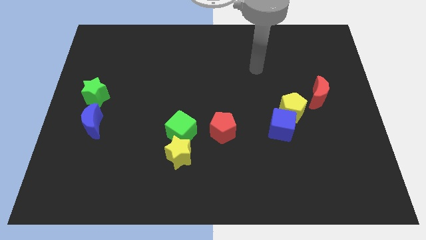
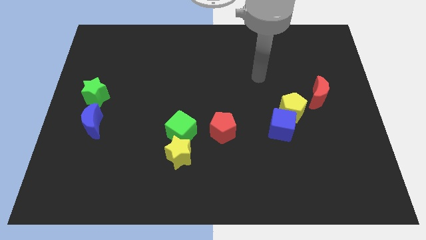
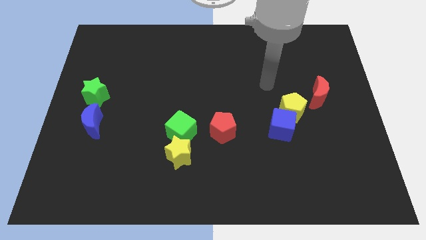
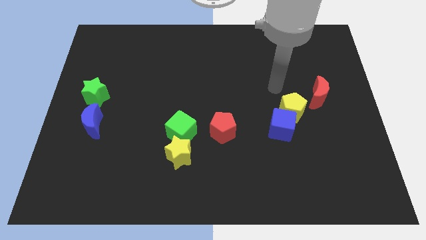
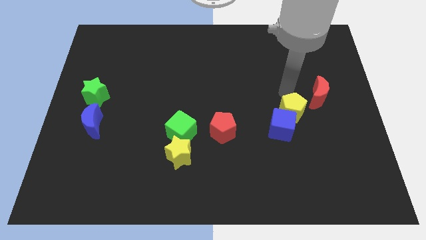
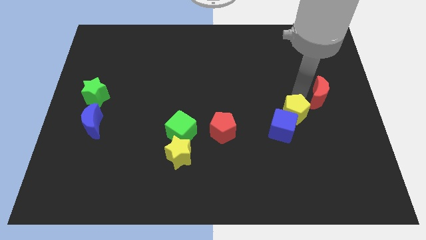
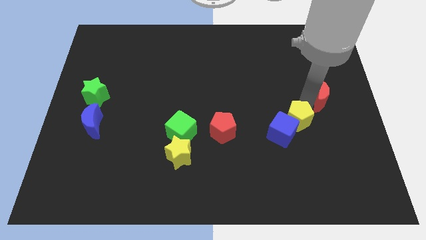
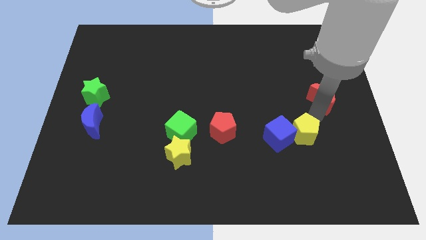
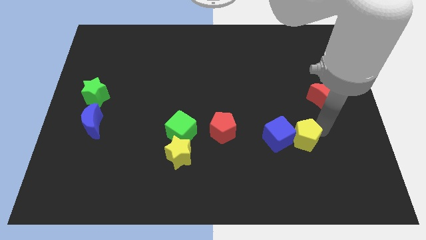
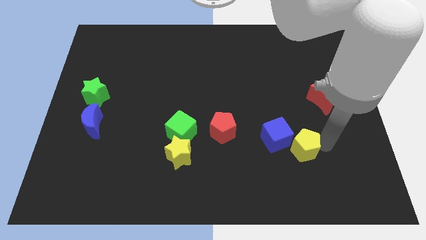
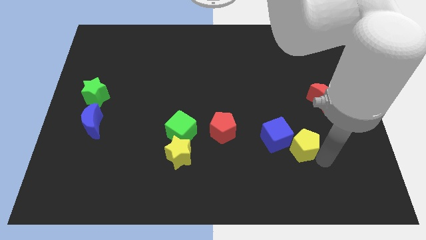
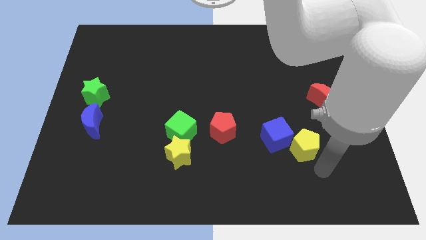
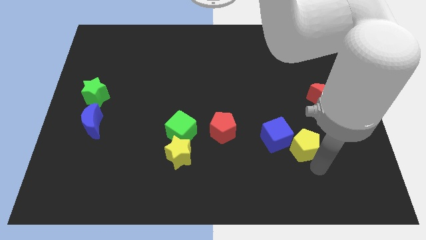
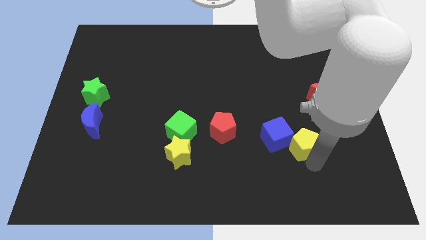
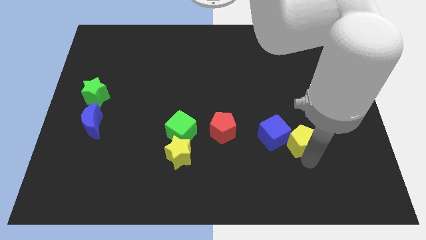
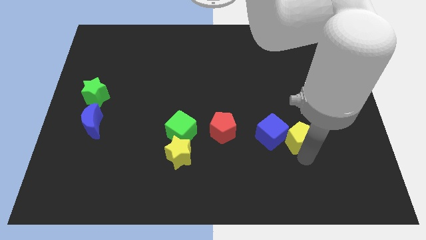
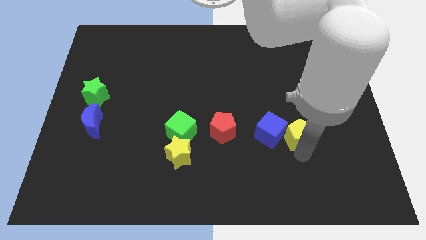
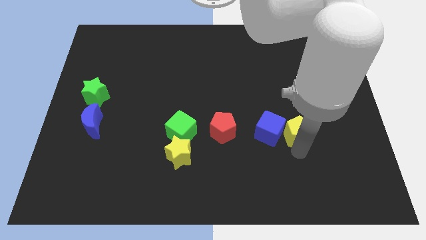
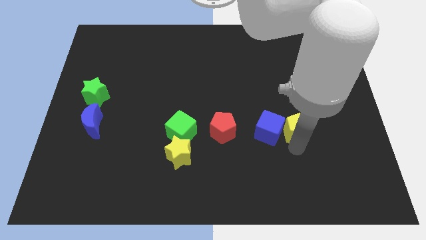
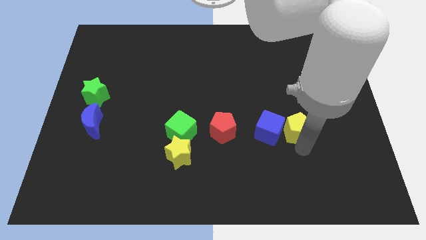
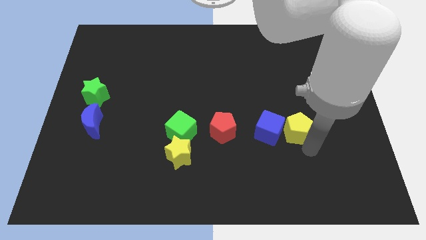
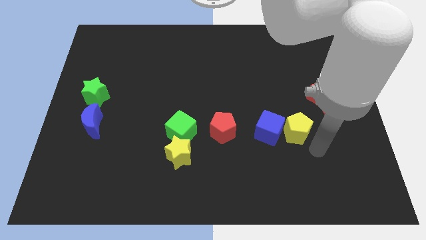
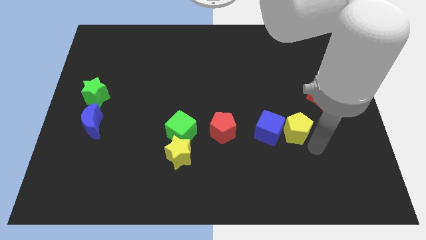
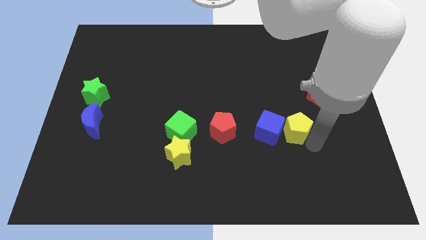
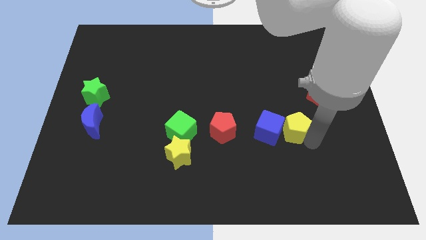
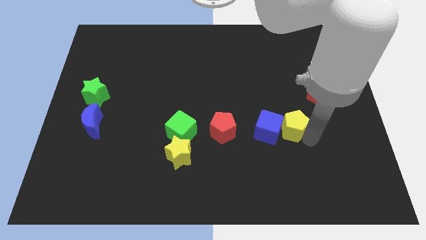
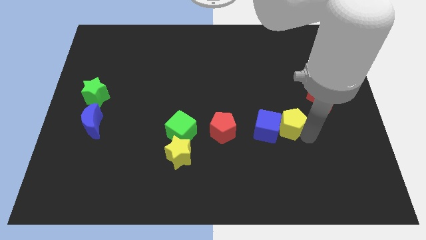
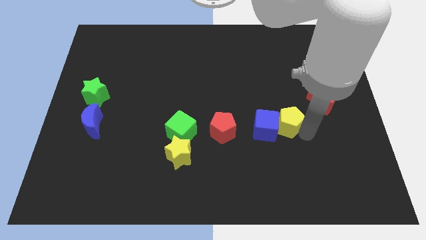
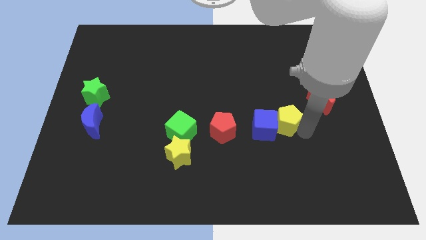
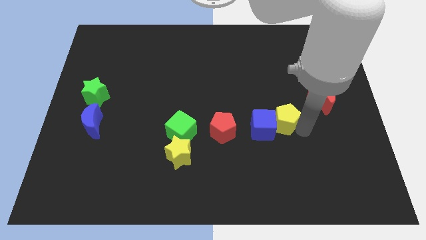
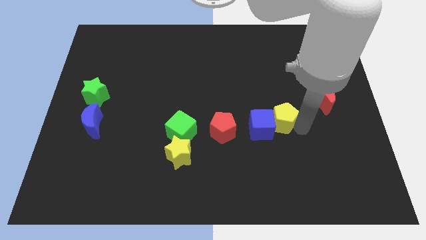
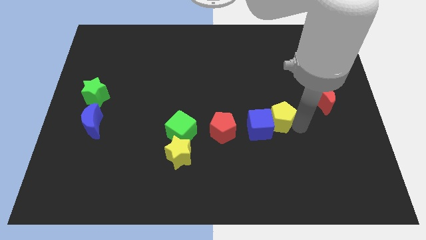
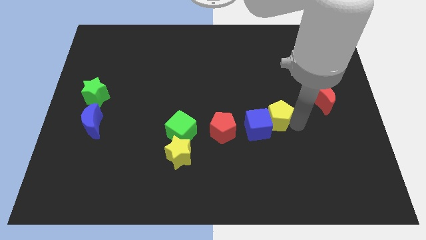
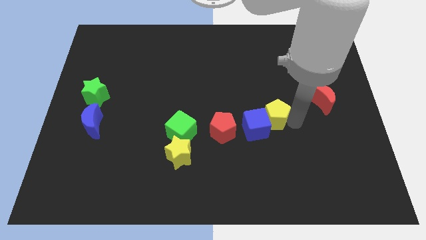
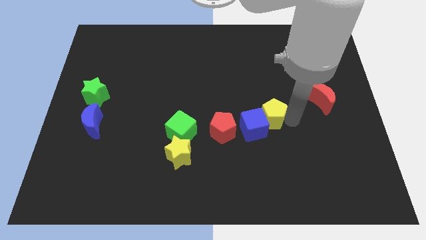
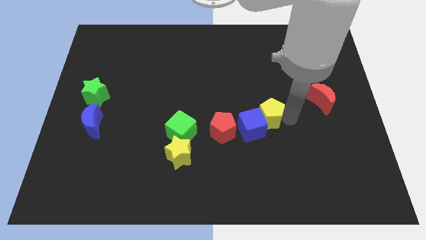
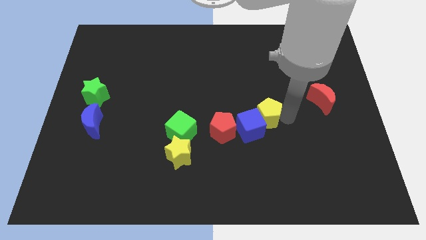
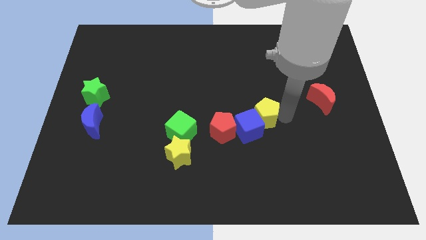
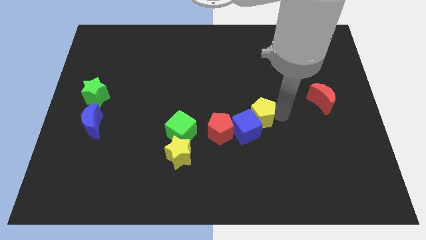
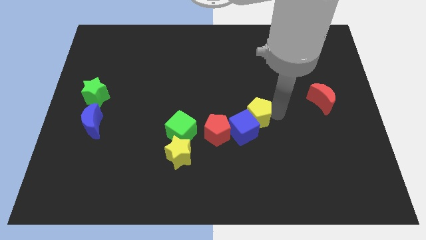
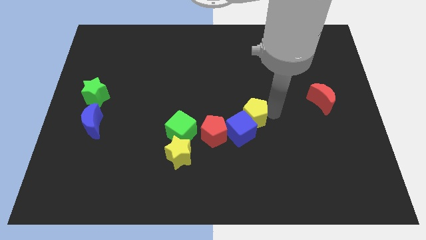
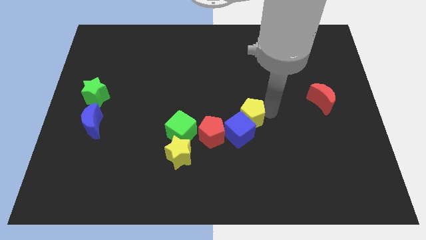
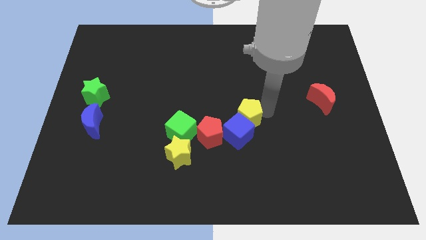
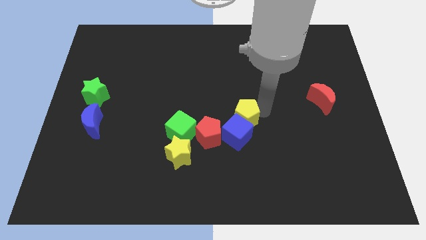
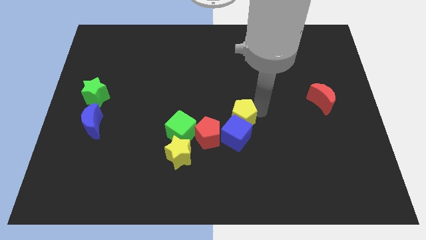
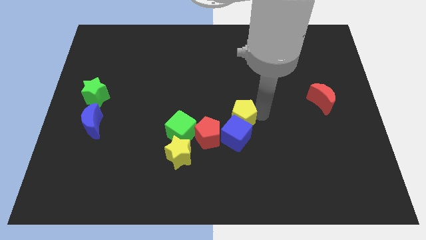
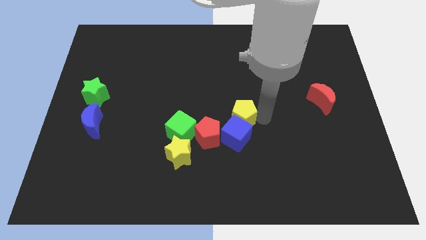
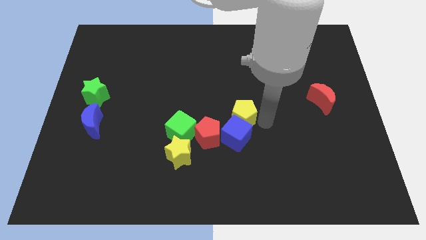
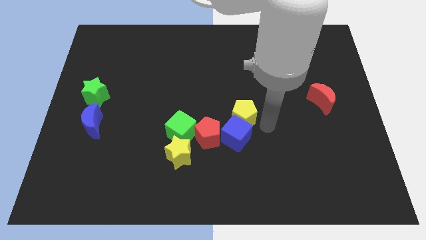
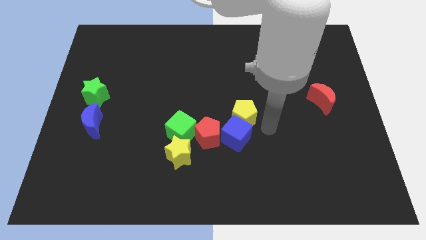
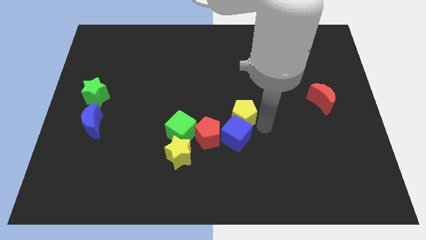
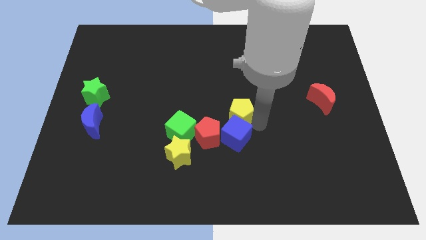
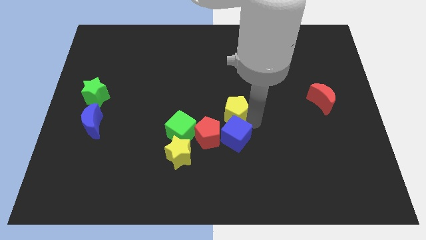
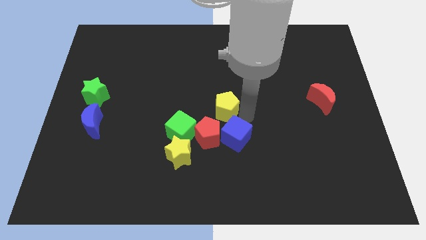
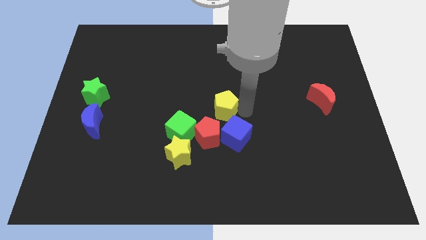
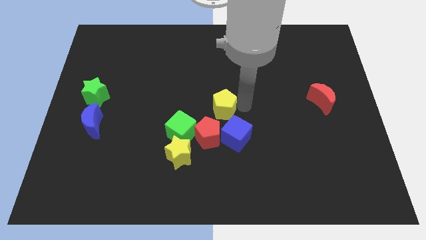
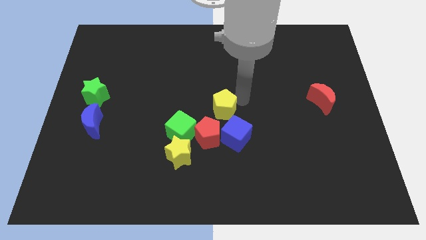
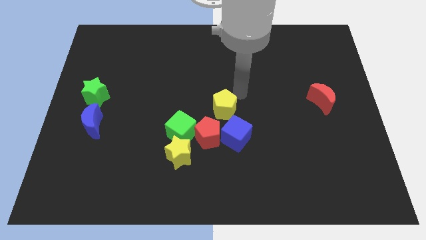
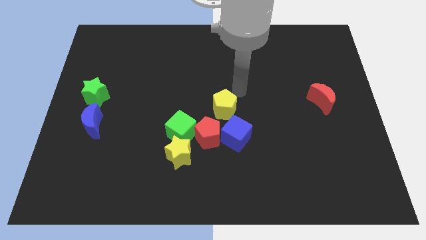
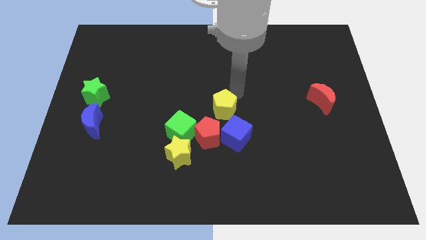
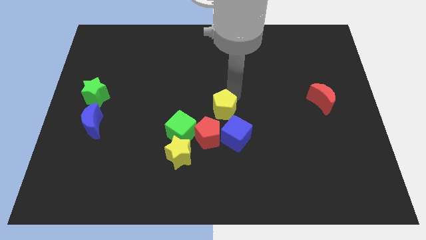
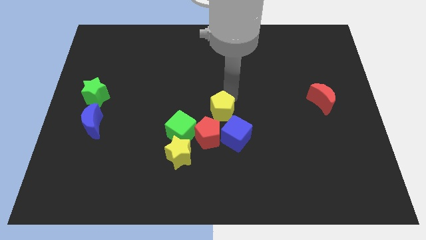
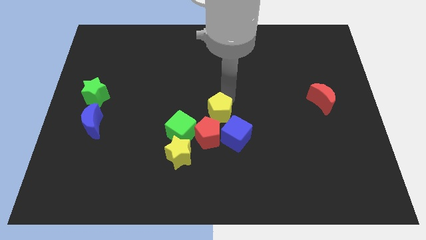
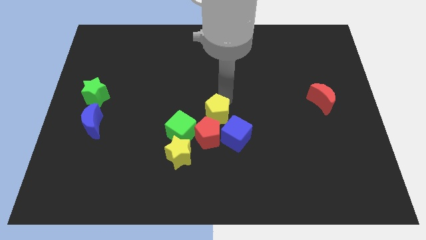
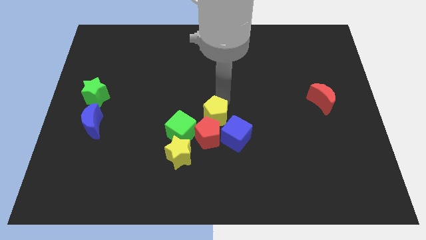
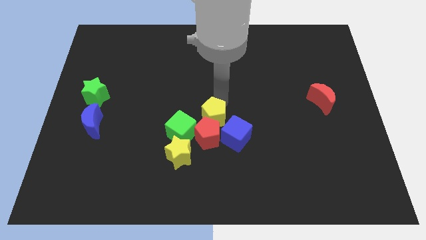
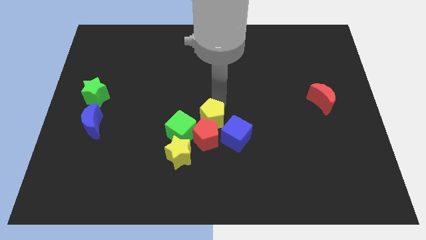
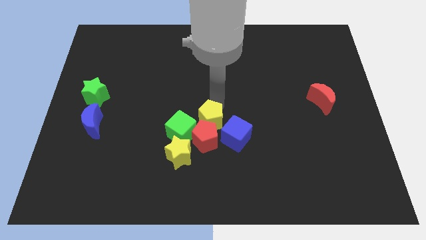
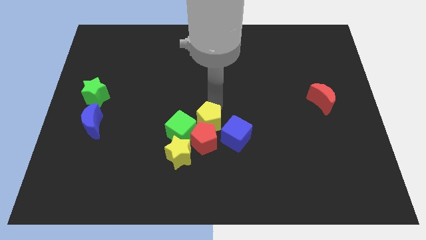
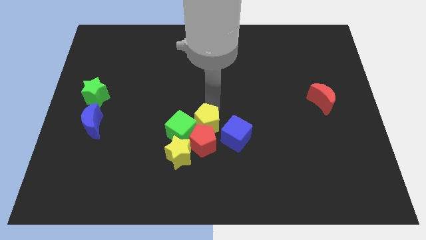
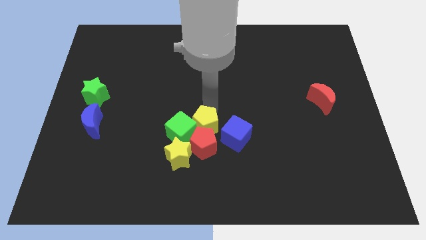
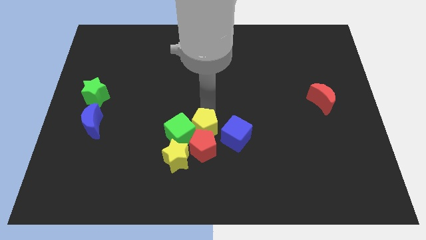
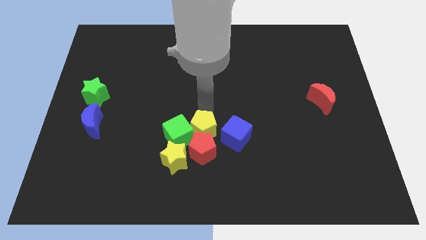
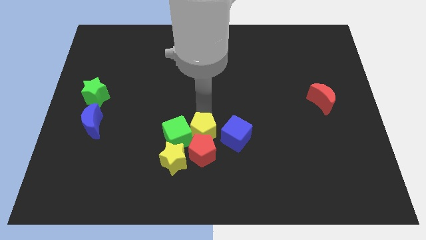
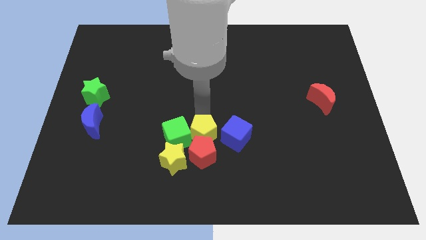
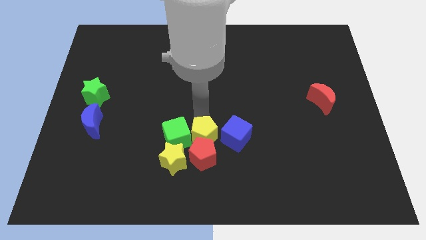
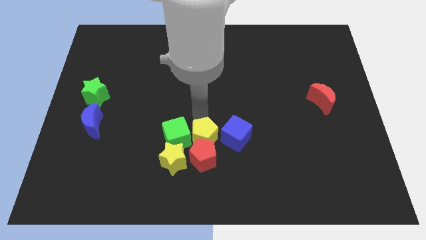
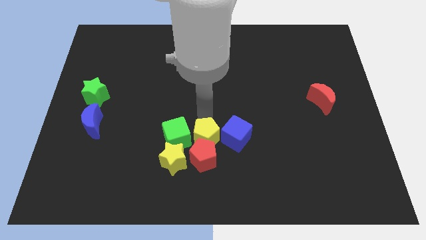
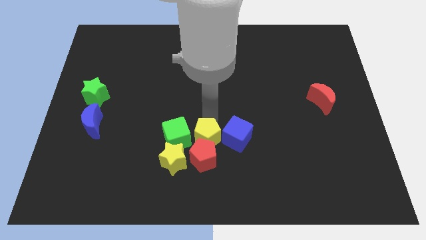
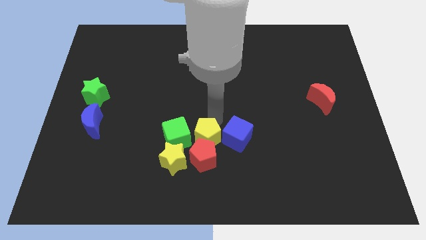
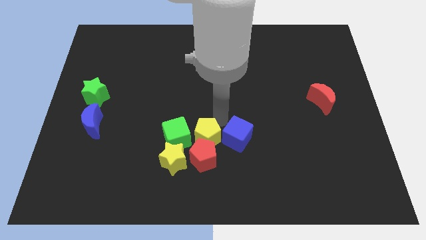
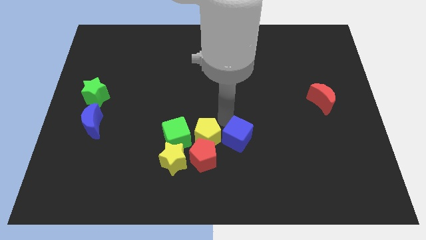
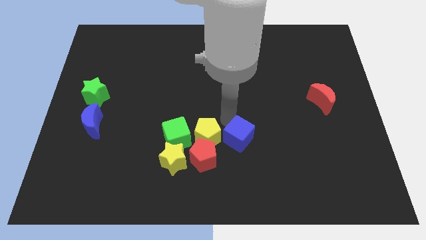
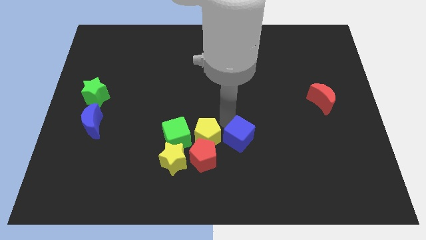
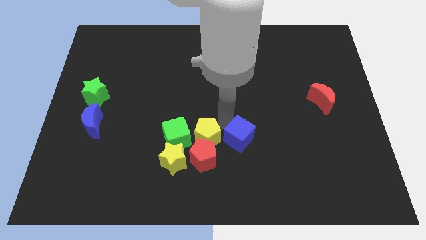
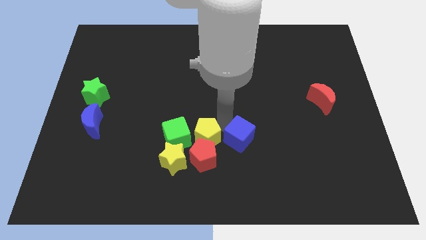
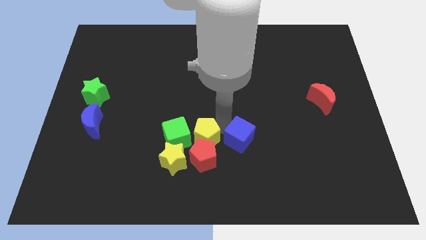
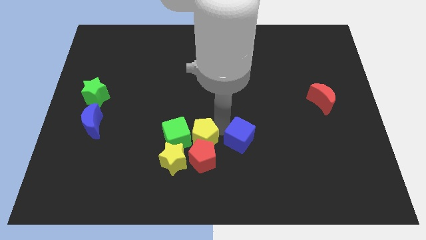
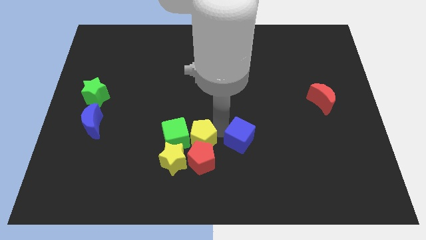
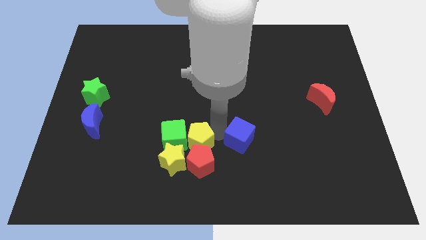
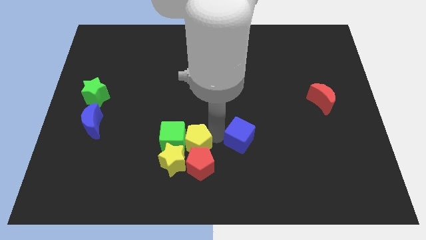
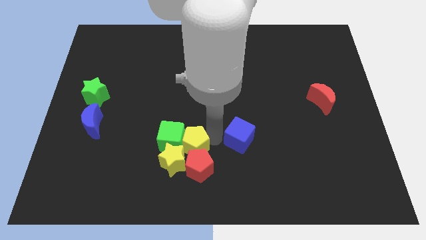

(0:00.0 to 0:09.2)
slide the yellow pentagon towards the yellow star
